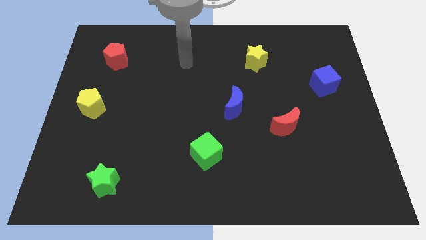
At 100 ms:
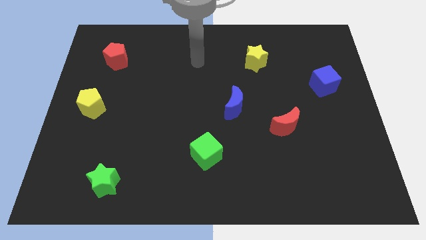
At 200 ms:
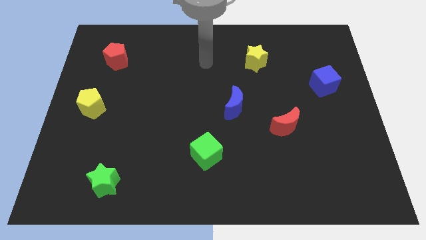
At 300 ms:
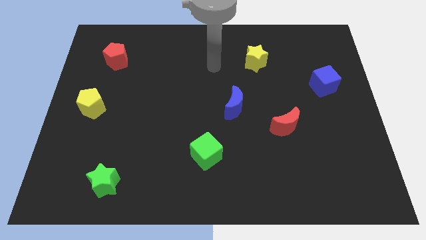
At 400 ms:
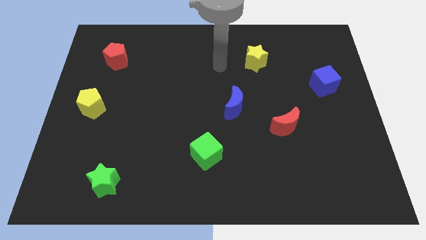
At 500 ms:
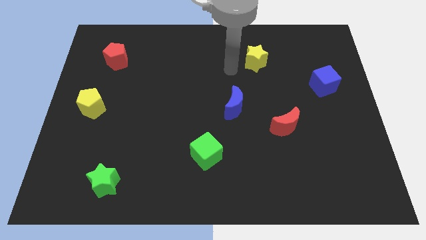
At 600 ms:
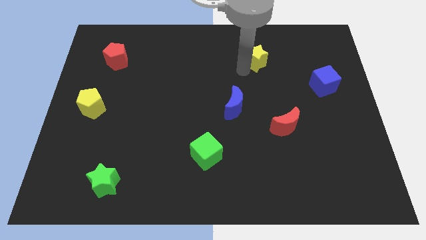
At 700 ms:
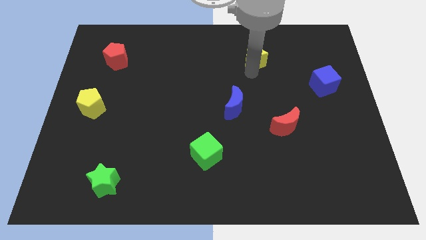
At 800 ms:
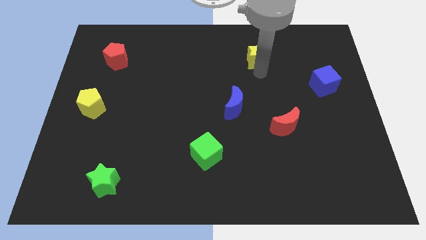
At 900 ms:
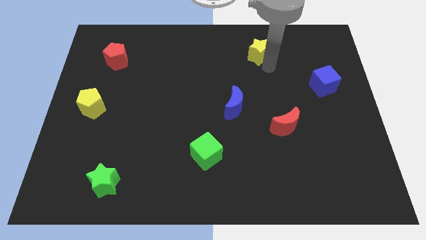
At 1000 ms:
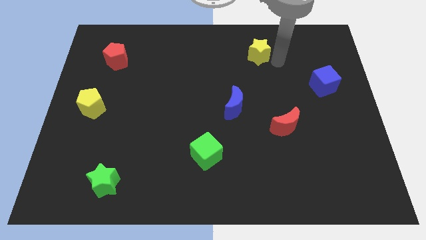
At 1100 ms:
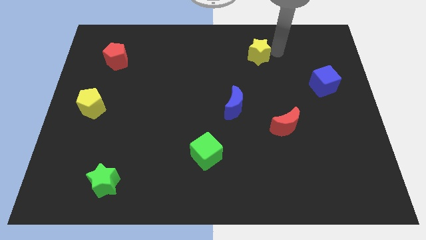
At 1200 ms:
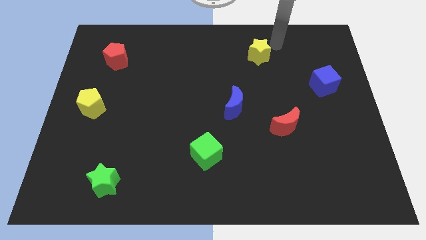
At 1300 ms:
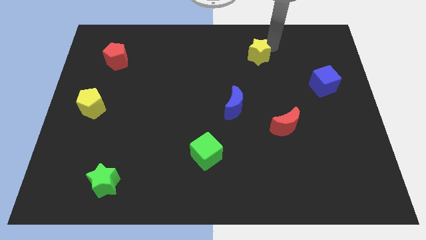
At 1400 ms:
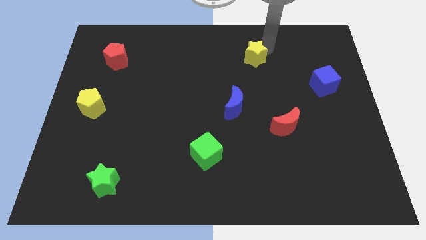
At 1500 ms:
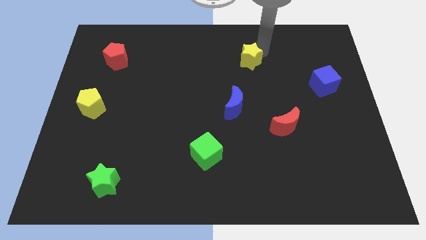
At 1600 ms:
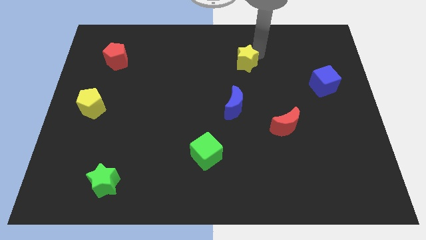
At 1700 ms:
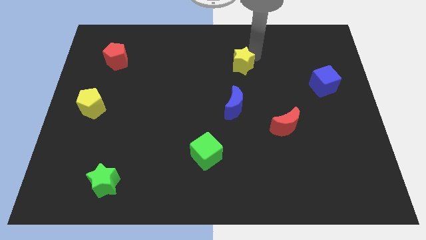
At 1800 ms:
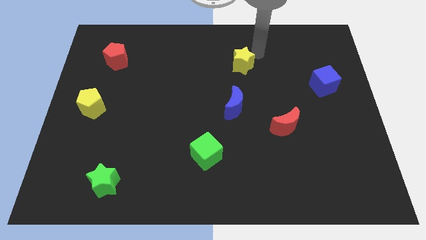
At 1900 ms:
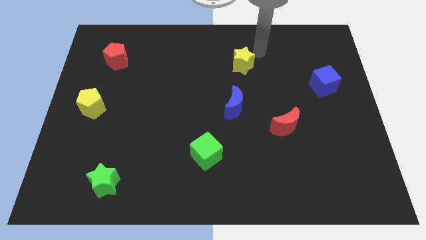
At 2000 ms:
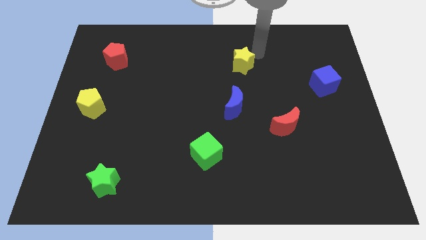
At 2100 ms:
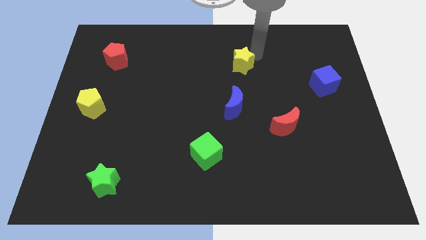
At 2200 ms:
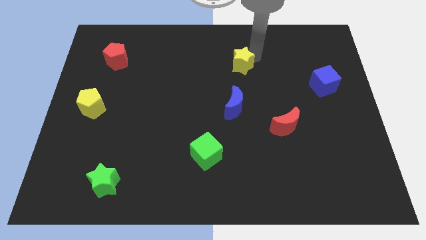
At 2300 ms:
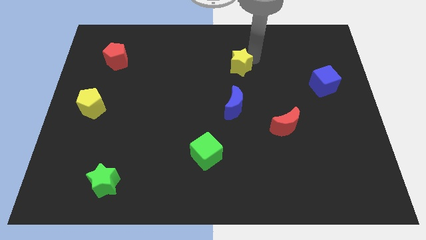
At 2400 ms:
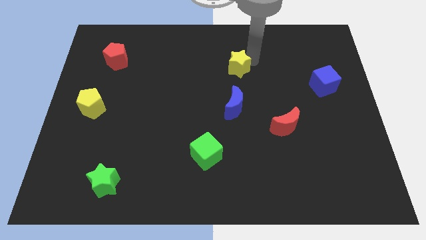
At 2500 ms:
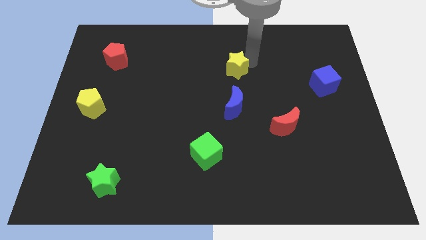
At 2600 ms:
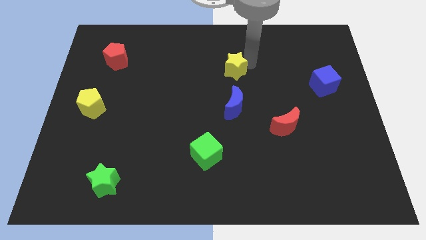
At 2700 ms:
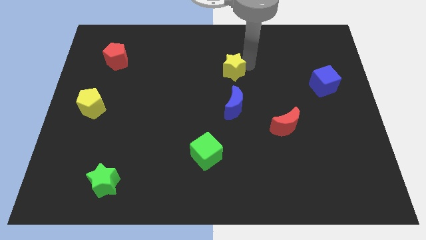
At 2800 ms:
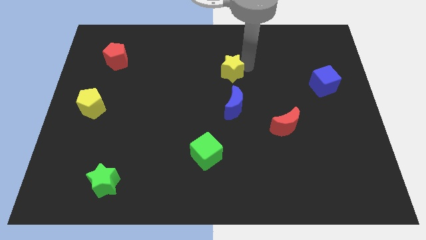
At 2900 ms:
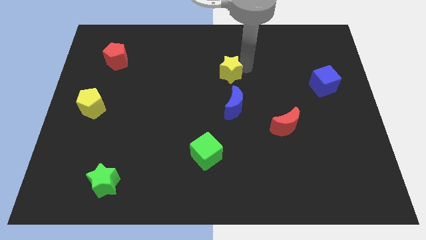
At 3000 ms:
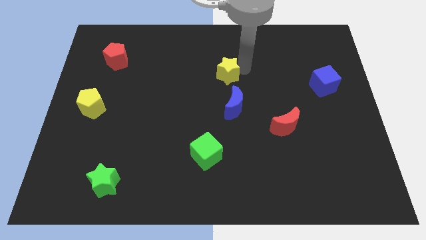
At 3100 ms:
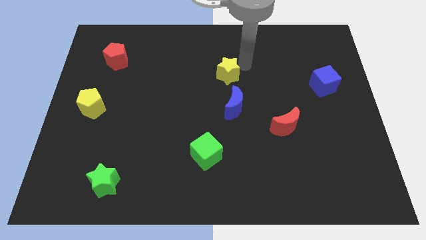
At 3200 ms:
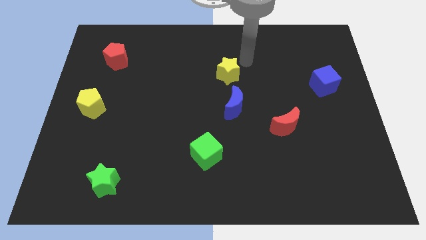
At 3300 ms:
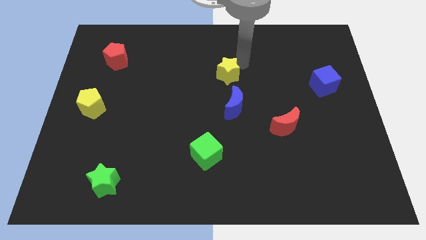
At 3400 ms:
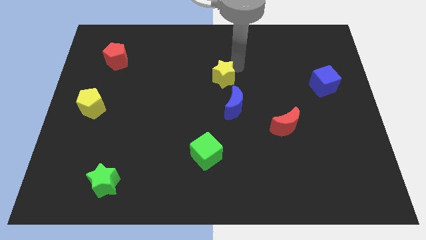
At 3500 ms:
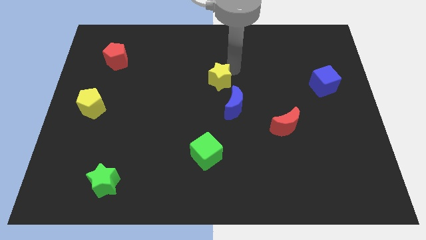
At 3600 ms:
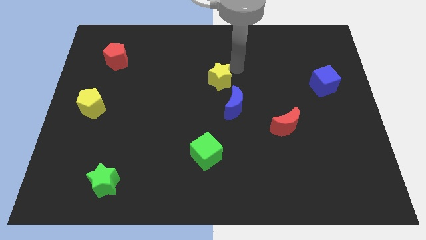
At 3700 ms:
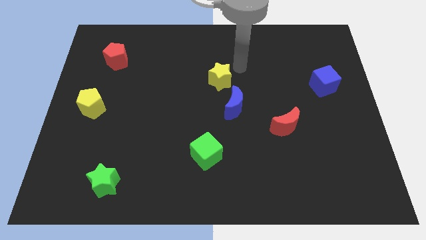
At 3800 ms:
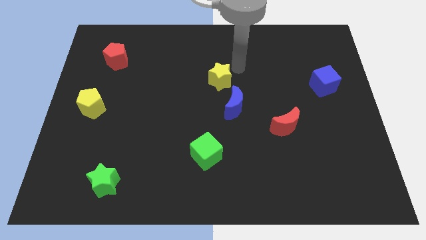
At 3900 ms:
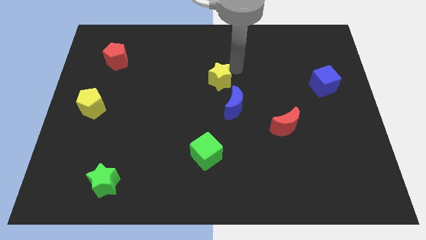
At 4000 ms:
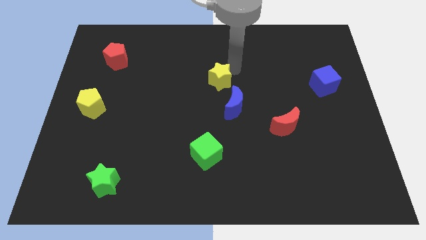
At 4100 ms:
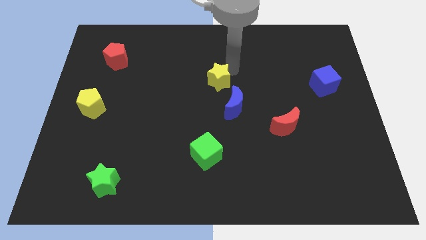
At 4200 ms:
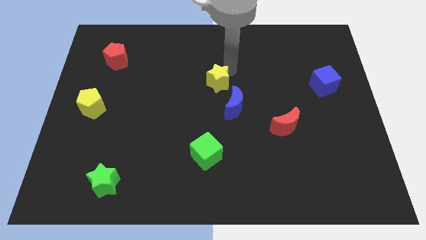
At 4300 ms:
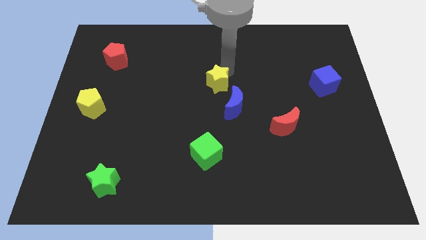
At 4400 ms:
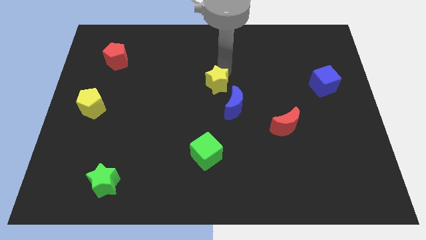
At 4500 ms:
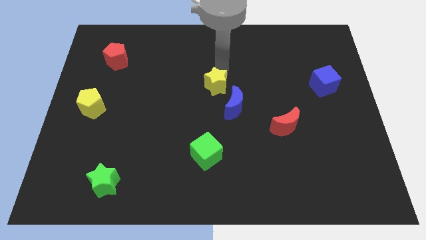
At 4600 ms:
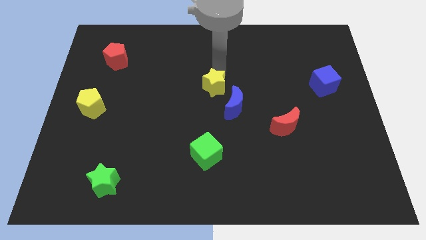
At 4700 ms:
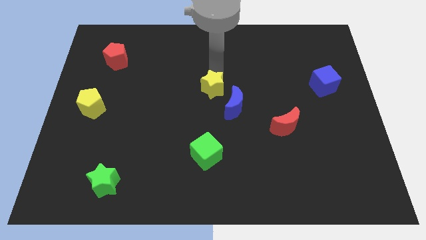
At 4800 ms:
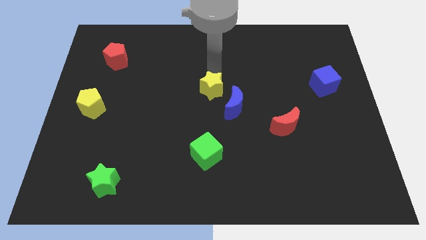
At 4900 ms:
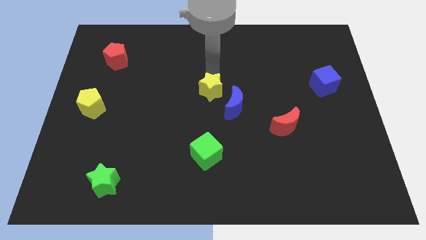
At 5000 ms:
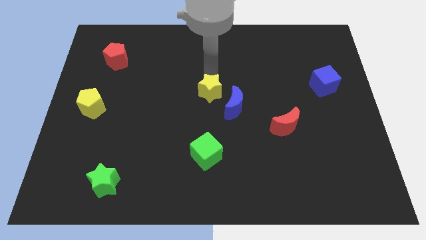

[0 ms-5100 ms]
move the yellow star just left of the blue moon
